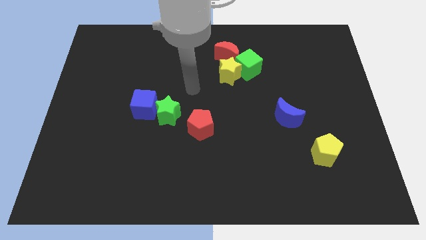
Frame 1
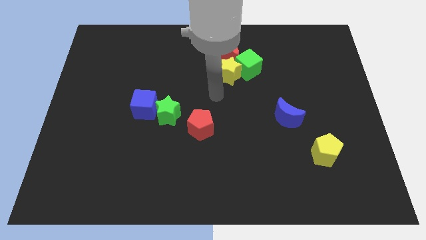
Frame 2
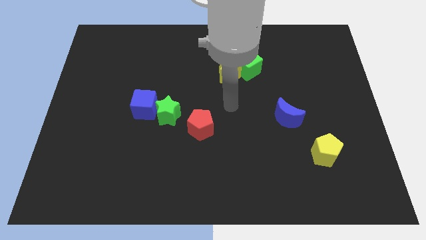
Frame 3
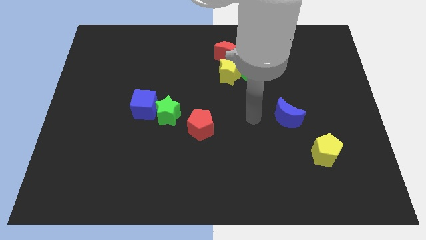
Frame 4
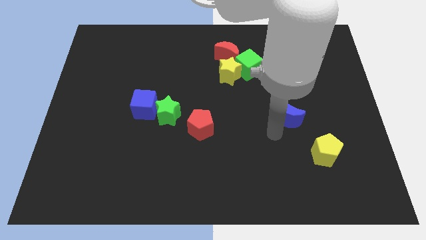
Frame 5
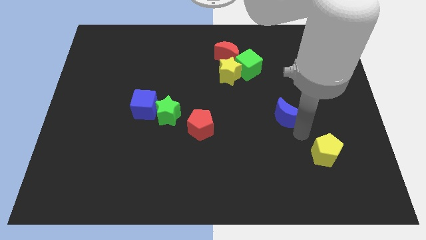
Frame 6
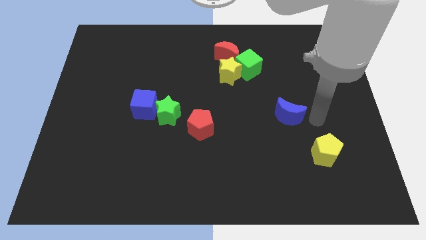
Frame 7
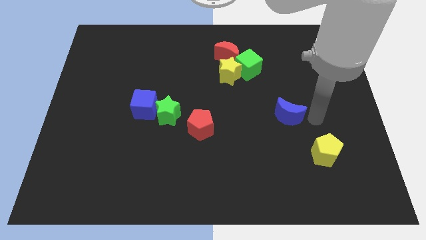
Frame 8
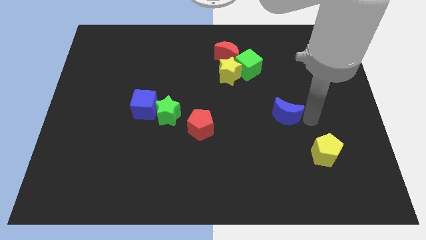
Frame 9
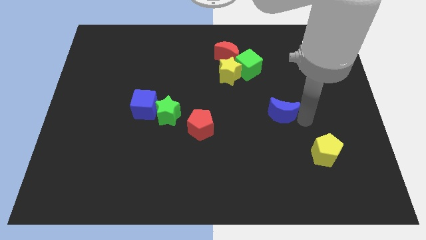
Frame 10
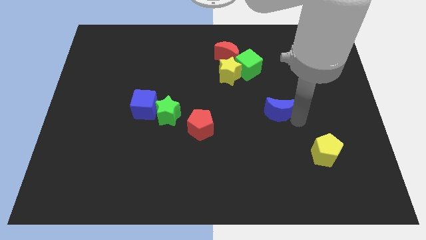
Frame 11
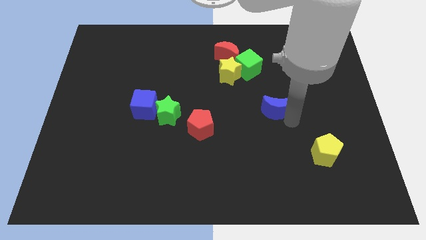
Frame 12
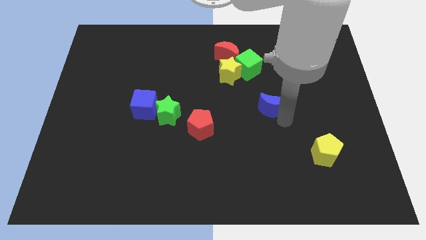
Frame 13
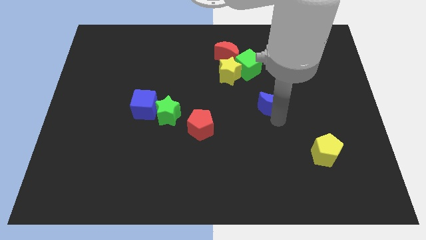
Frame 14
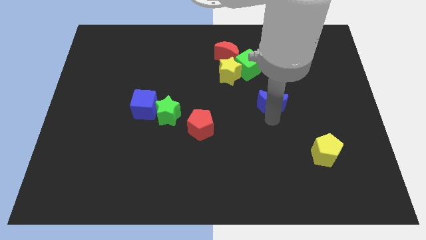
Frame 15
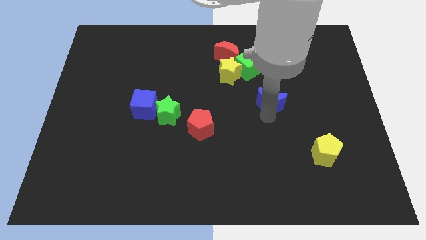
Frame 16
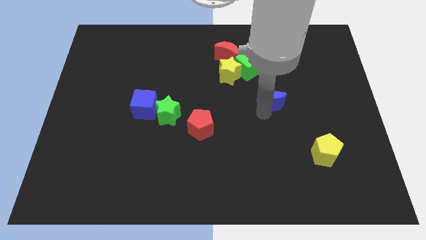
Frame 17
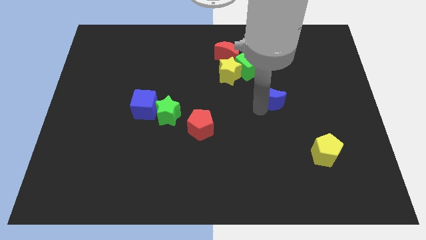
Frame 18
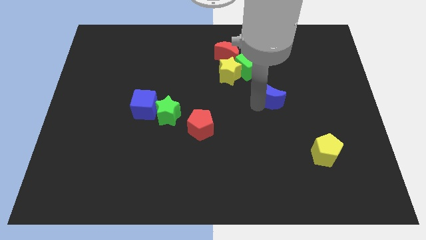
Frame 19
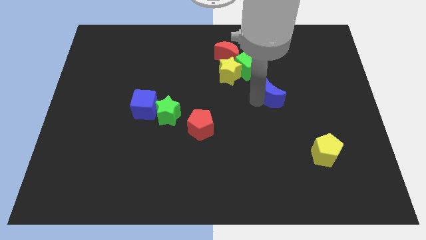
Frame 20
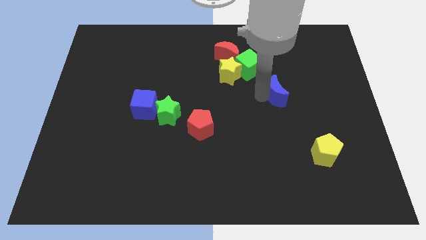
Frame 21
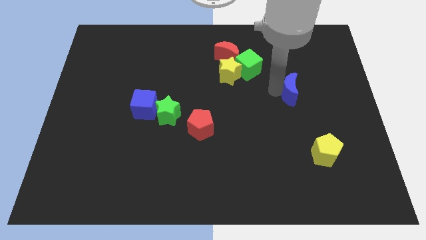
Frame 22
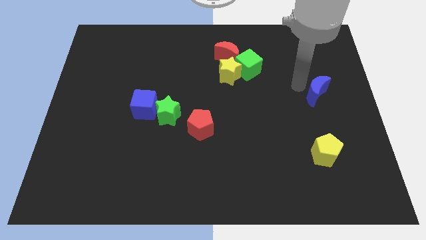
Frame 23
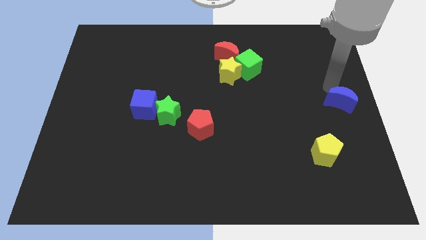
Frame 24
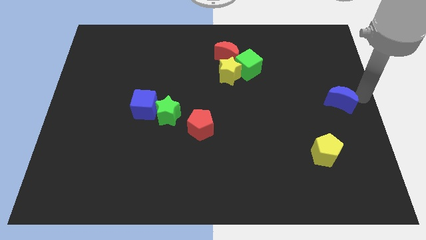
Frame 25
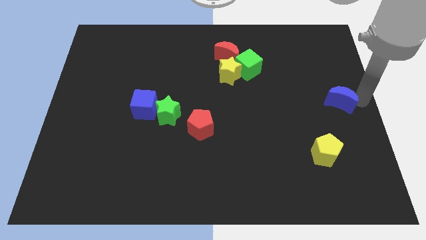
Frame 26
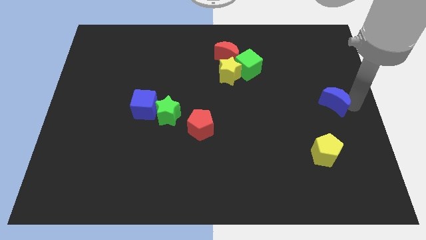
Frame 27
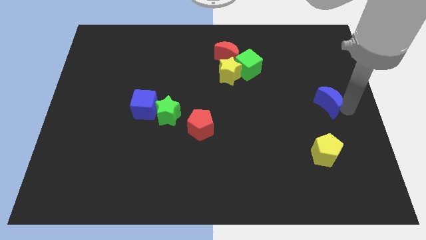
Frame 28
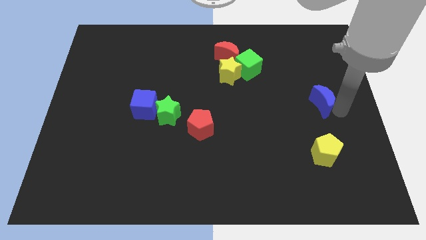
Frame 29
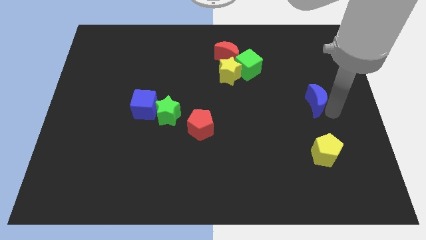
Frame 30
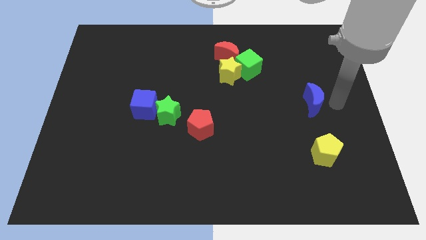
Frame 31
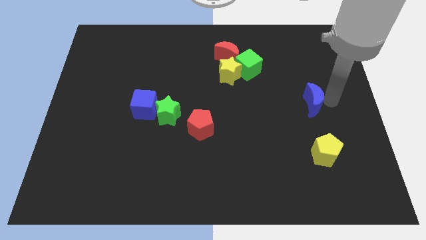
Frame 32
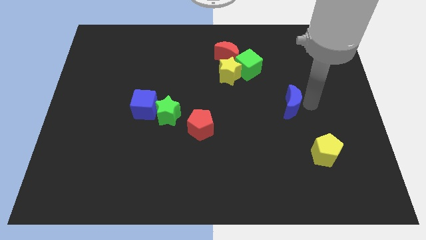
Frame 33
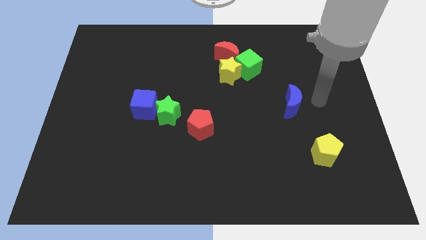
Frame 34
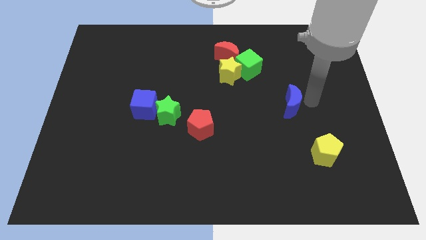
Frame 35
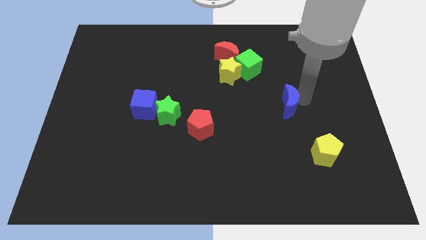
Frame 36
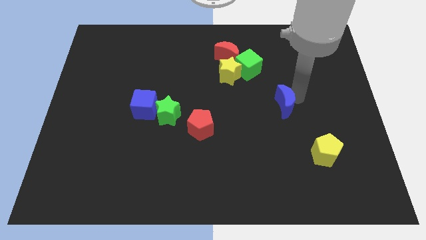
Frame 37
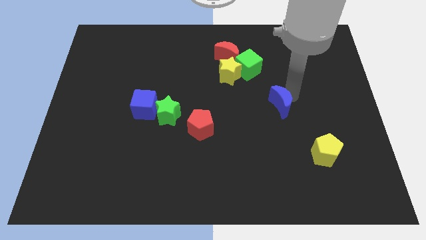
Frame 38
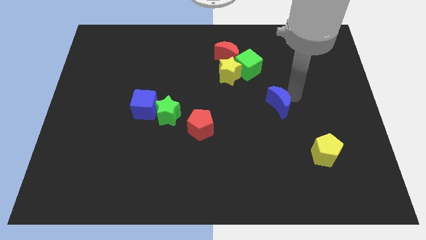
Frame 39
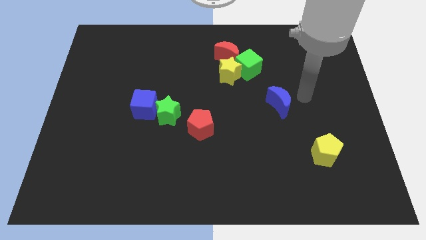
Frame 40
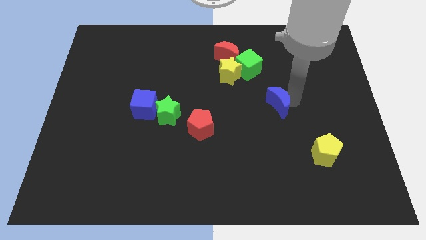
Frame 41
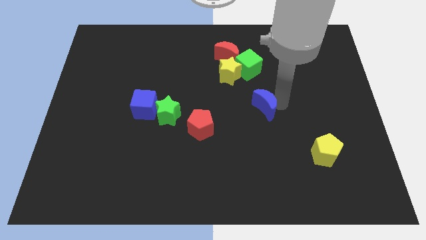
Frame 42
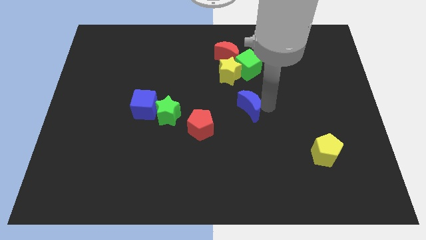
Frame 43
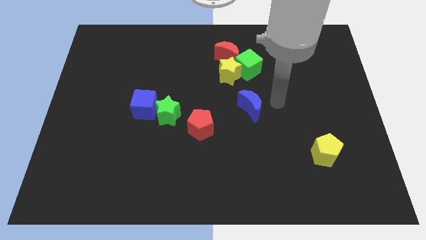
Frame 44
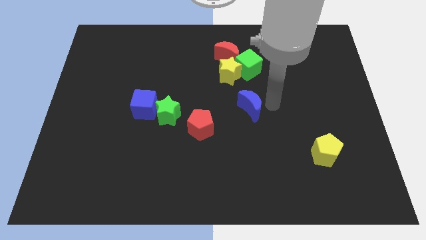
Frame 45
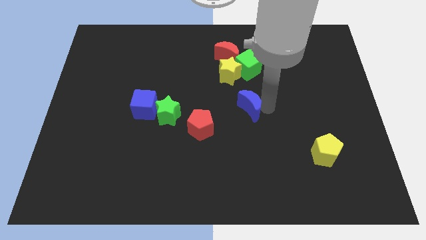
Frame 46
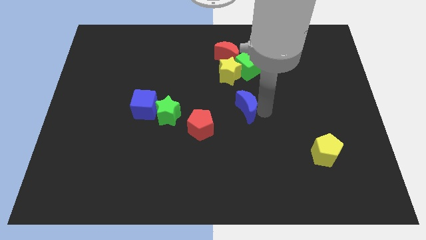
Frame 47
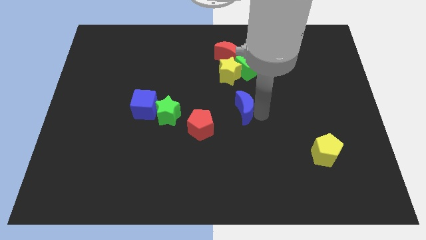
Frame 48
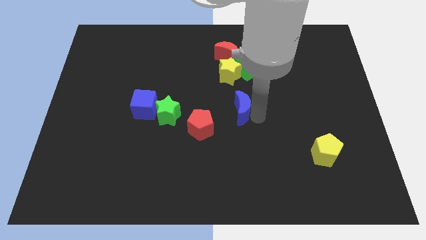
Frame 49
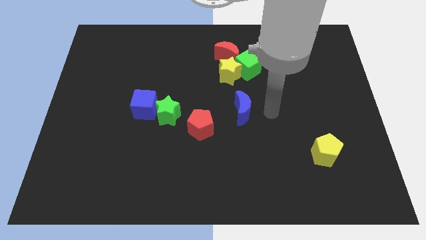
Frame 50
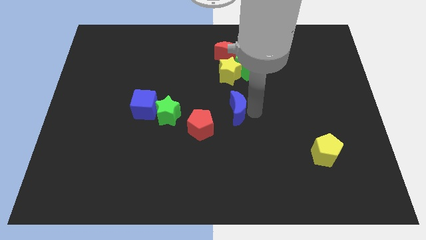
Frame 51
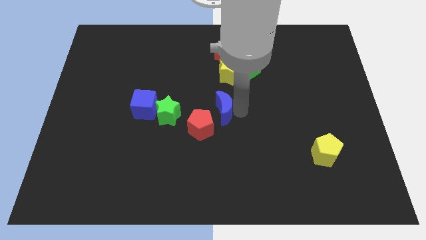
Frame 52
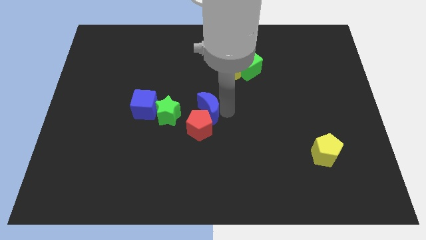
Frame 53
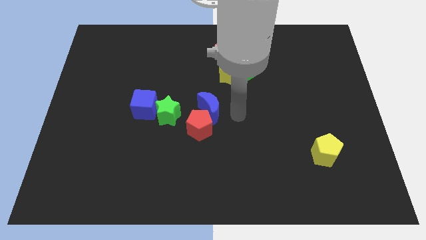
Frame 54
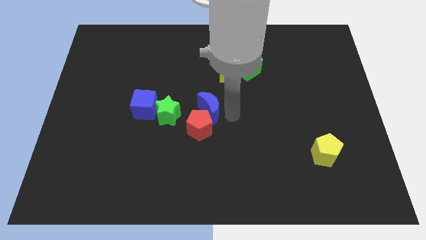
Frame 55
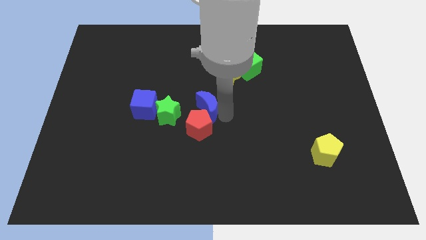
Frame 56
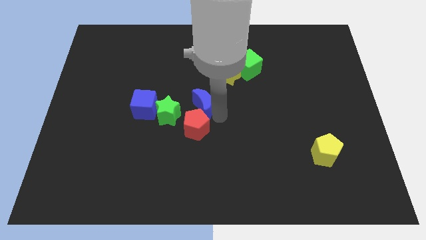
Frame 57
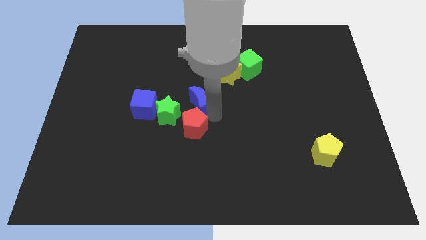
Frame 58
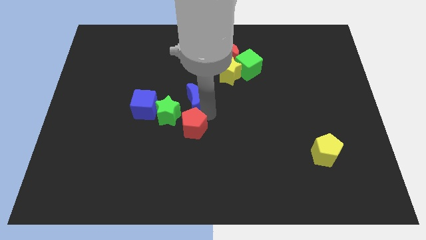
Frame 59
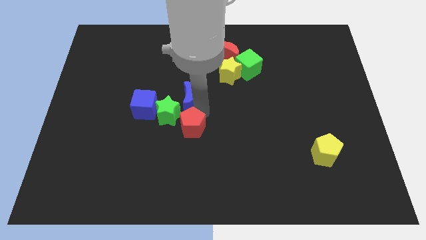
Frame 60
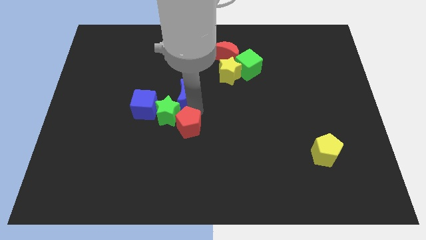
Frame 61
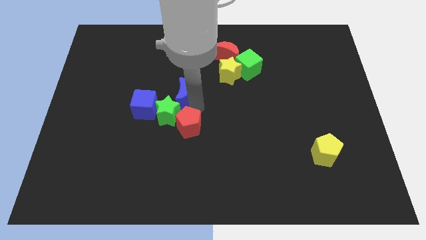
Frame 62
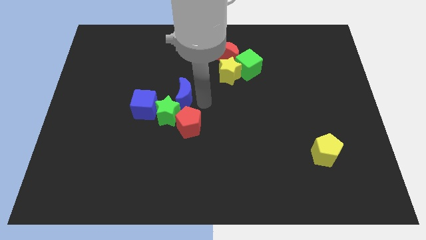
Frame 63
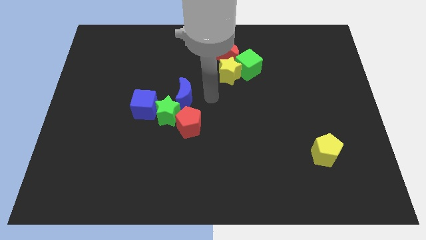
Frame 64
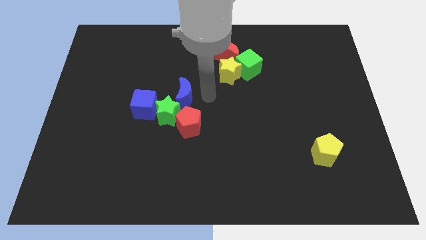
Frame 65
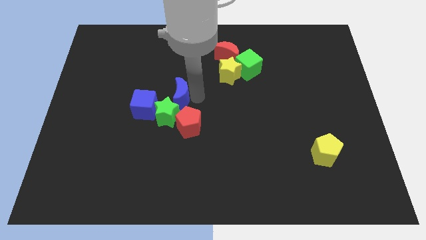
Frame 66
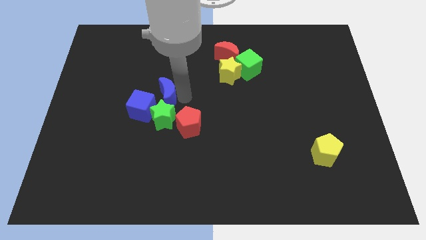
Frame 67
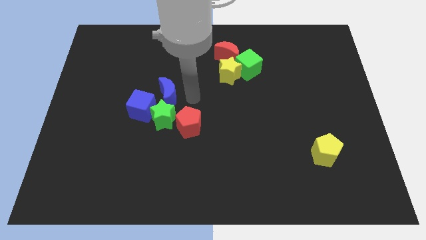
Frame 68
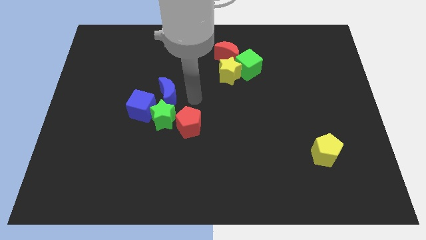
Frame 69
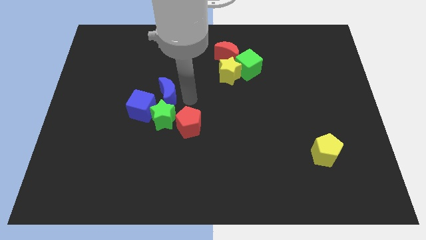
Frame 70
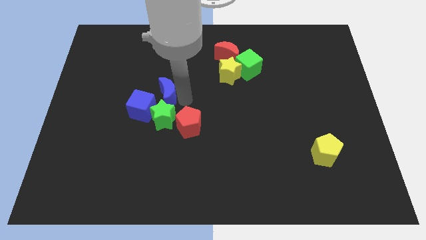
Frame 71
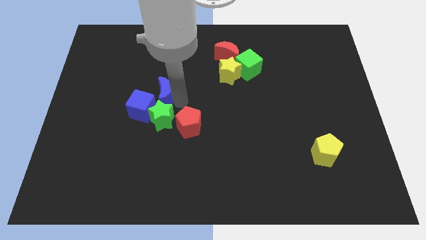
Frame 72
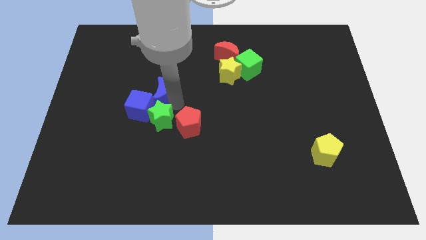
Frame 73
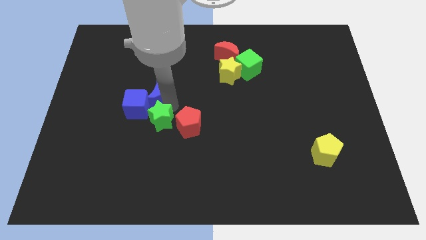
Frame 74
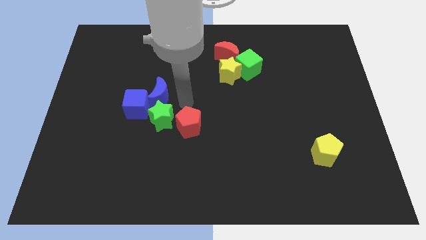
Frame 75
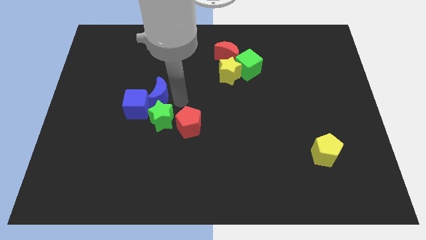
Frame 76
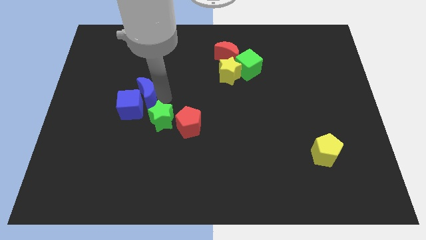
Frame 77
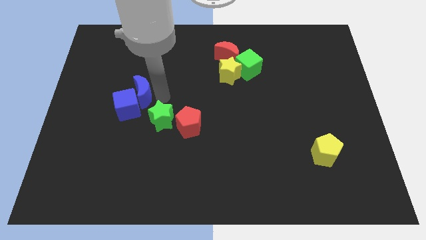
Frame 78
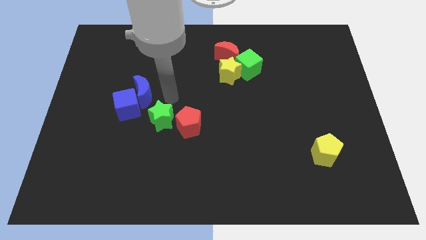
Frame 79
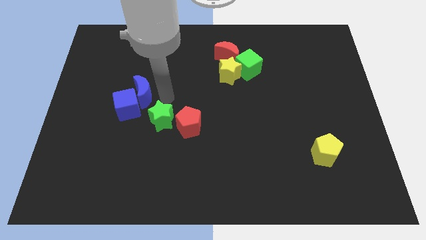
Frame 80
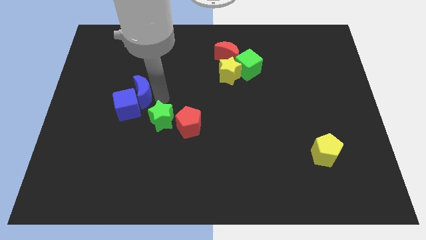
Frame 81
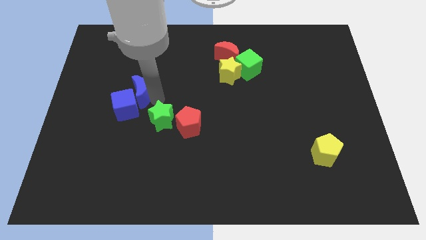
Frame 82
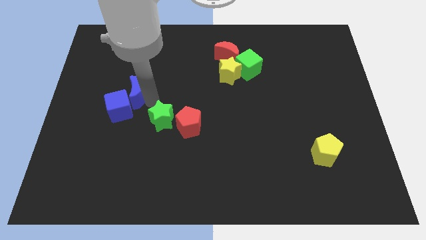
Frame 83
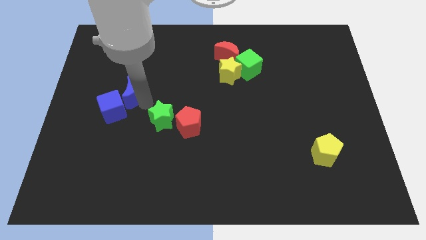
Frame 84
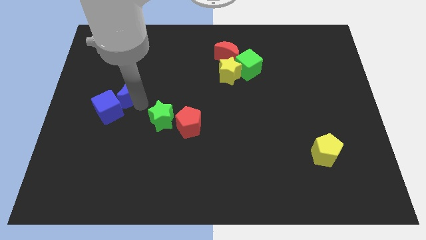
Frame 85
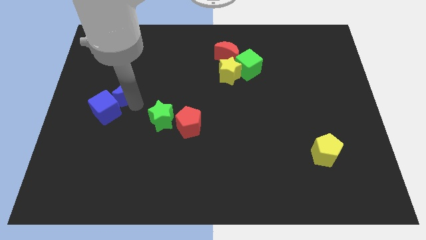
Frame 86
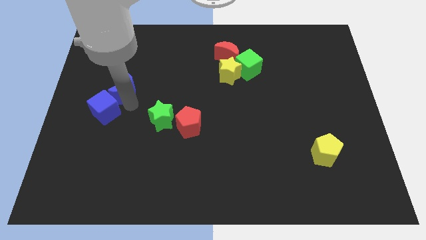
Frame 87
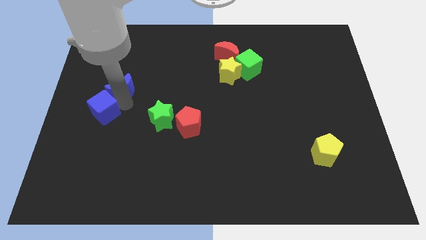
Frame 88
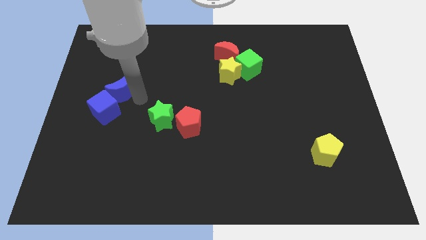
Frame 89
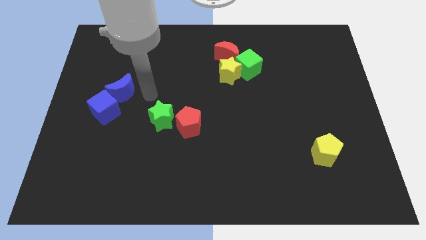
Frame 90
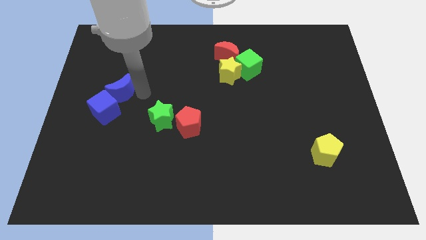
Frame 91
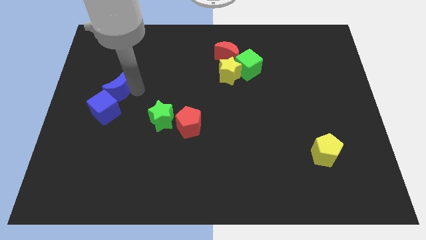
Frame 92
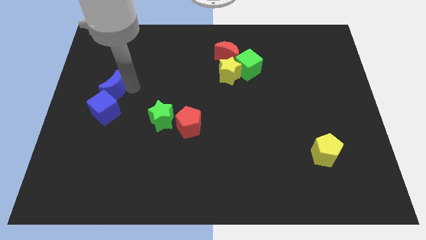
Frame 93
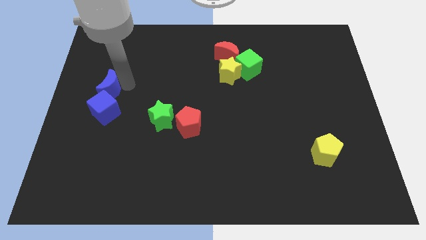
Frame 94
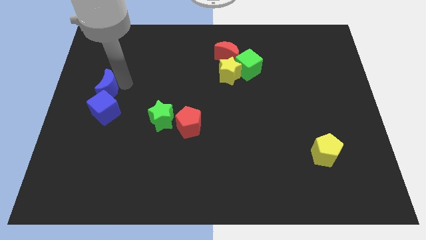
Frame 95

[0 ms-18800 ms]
push the blue moon to the left side
